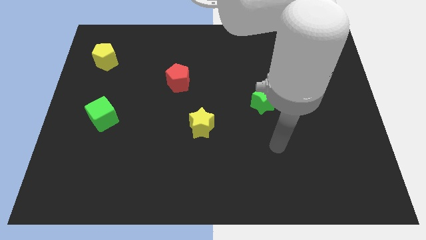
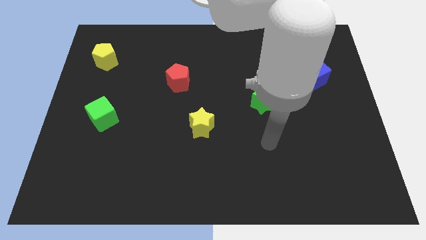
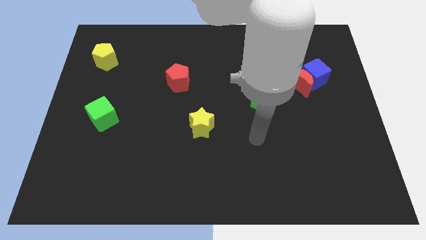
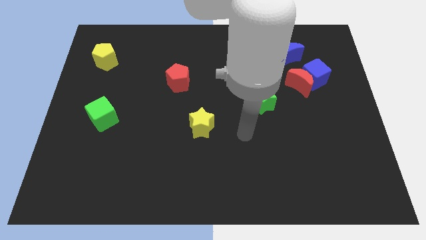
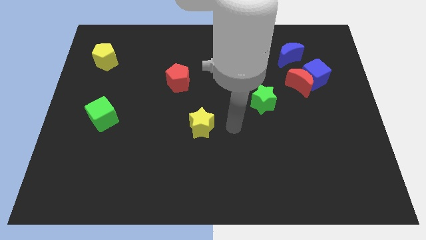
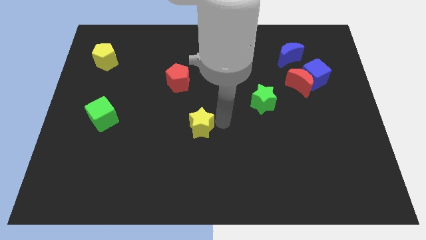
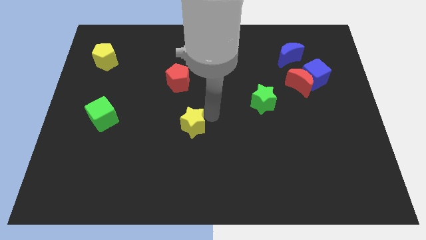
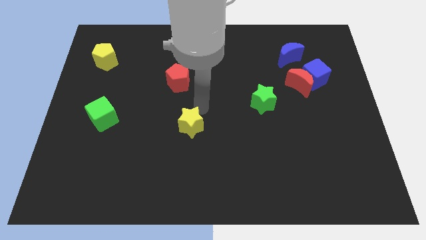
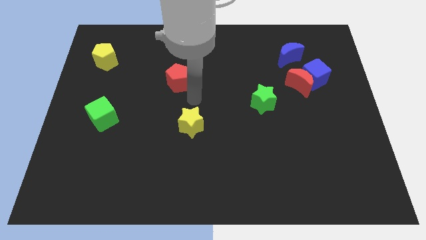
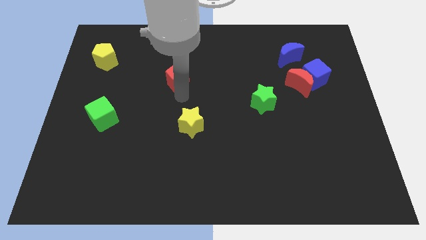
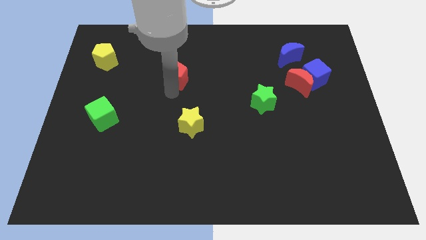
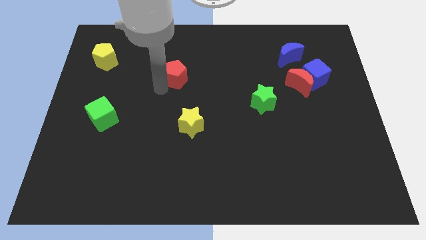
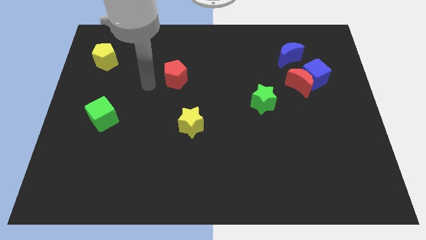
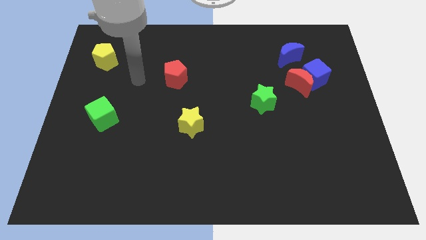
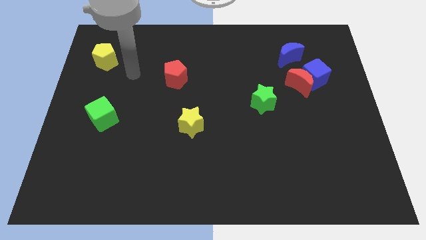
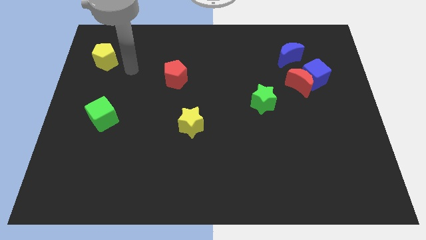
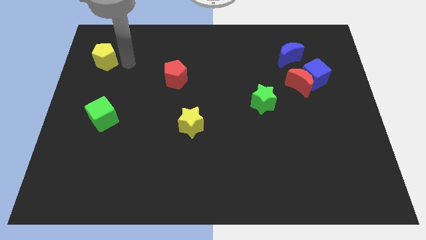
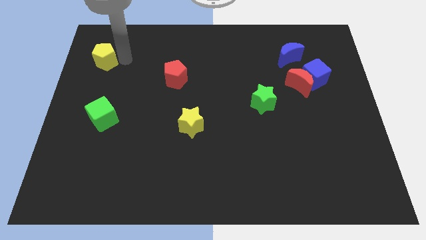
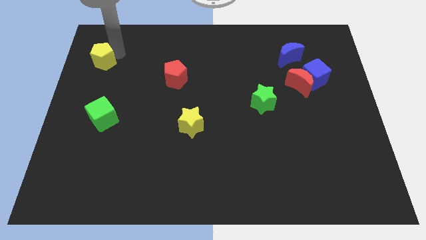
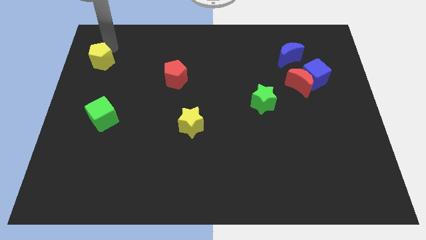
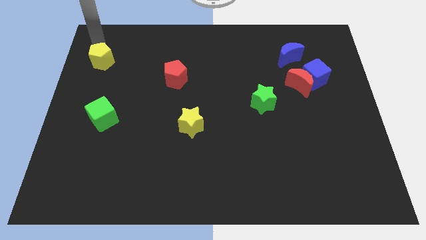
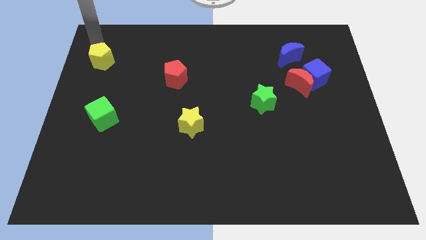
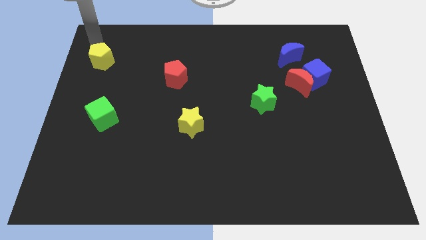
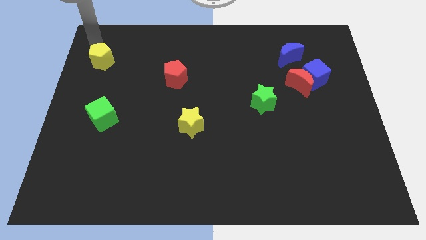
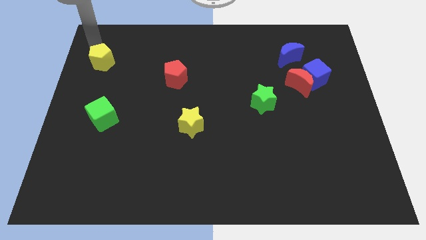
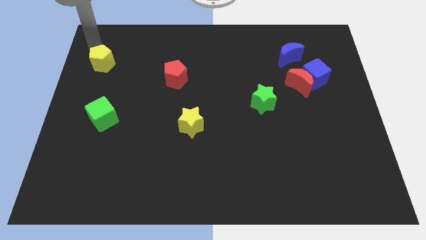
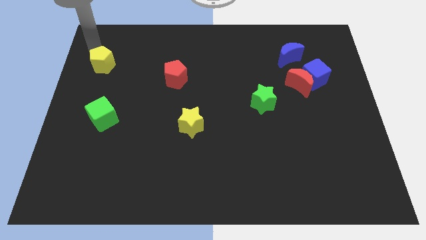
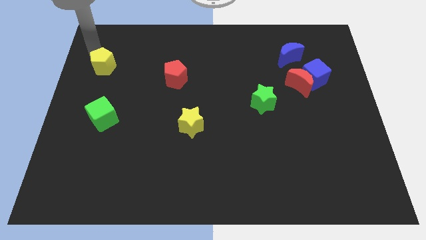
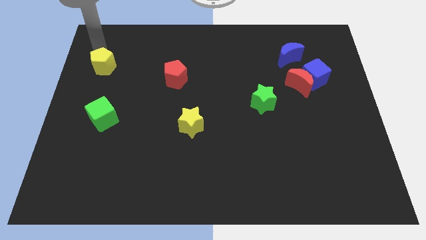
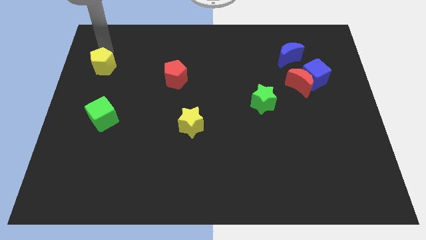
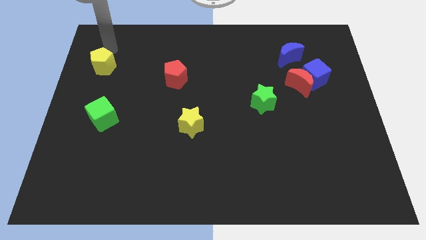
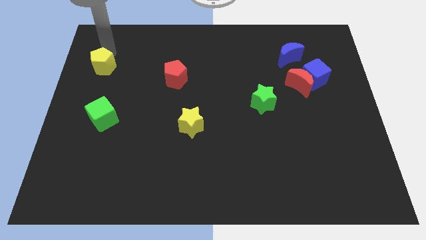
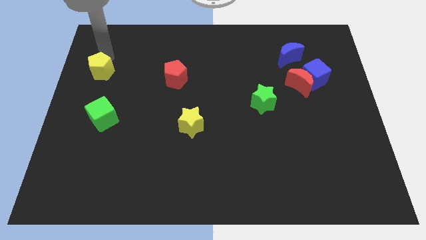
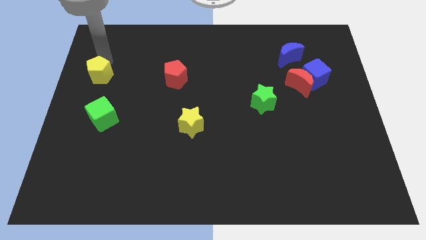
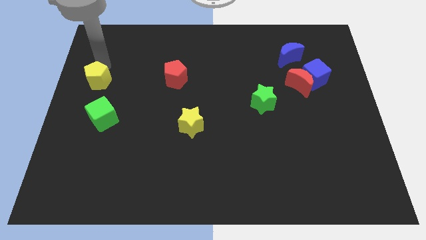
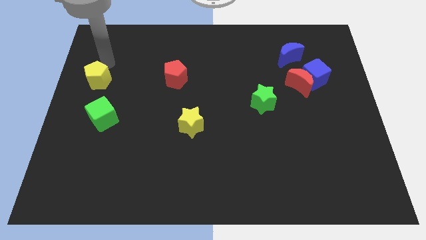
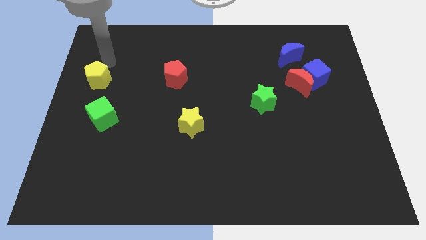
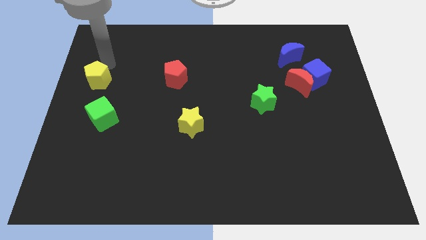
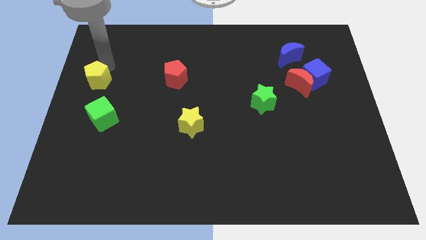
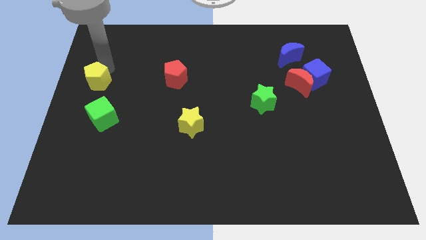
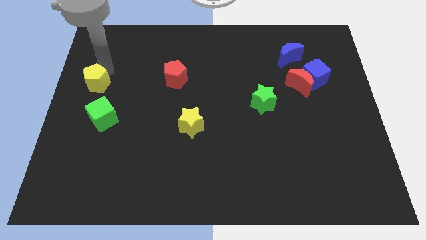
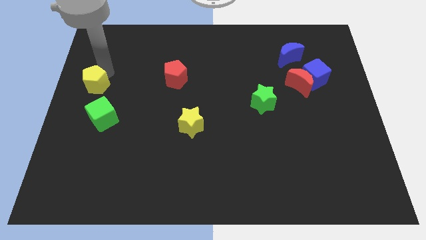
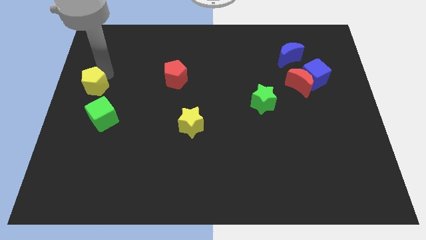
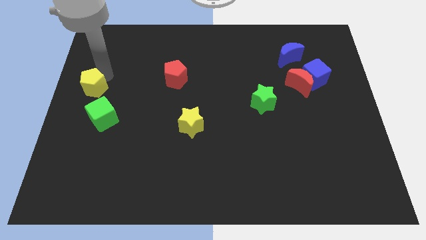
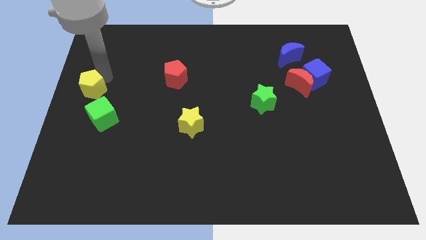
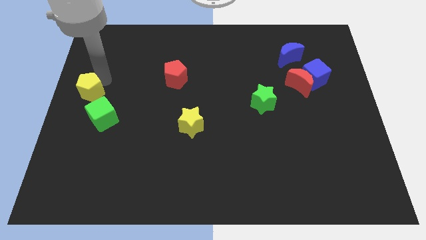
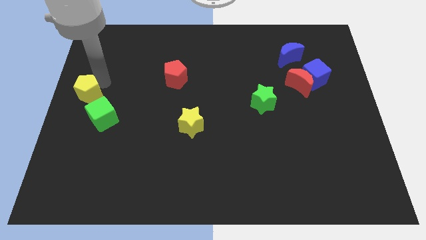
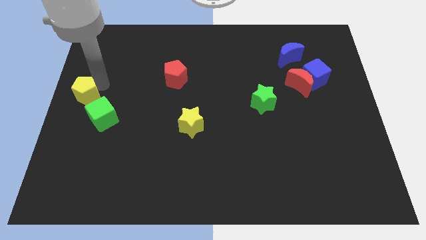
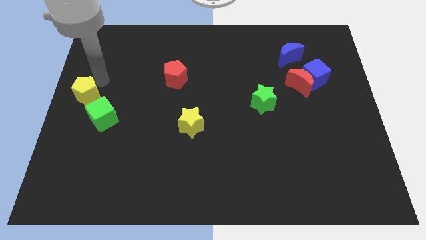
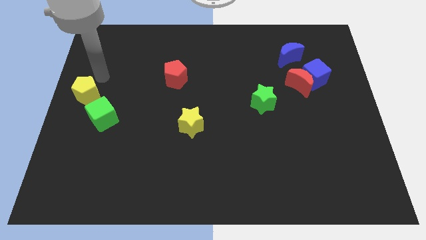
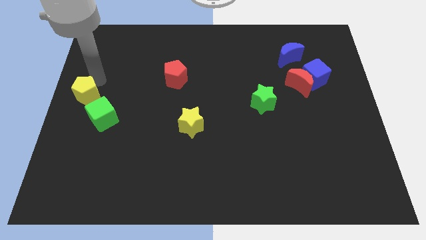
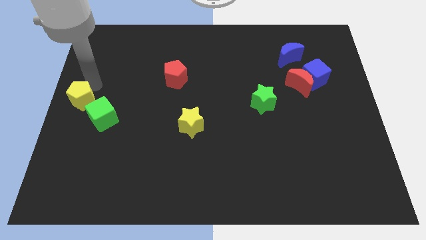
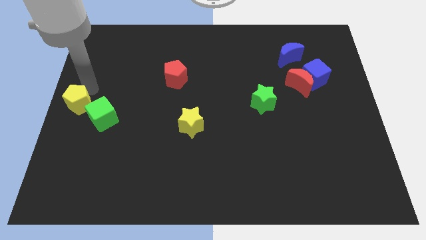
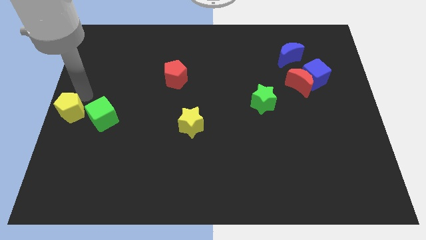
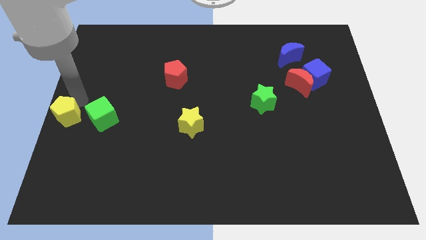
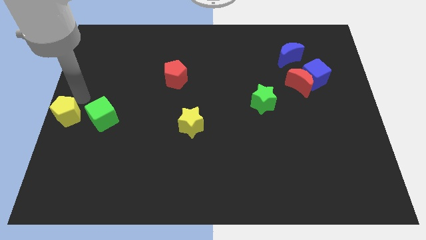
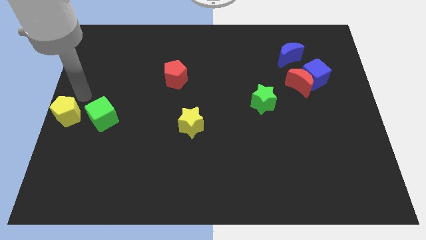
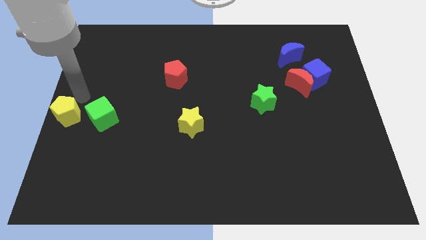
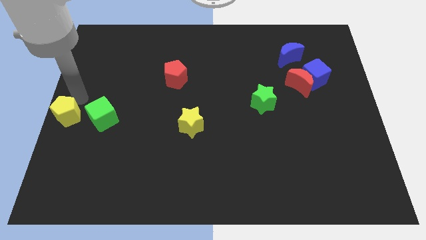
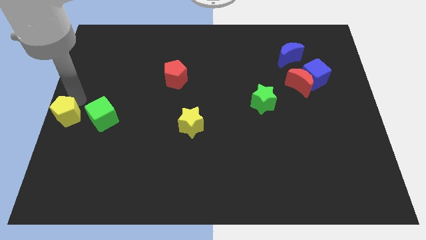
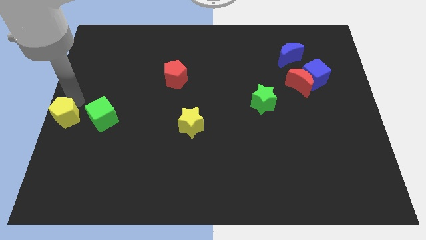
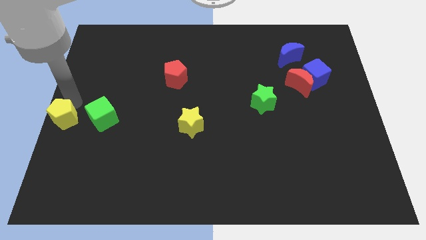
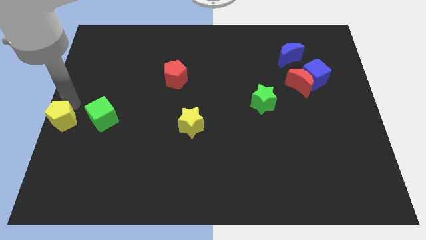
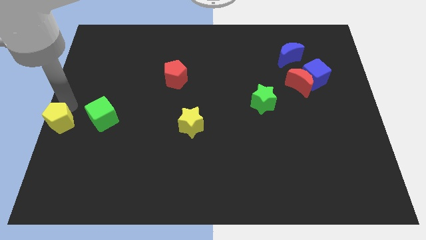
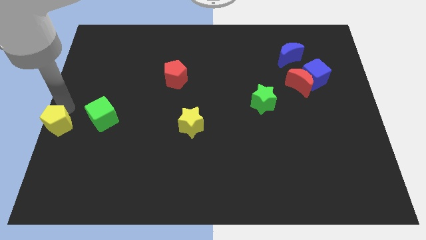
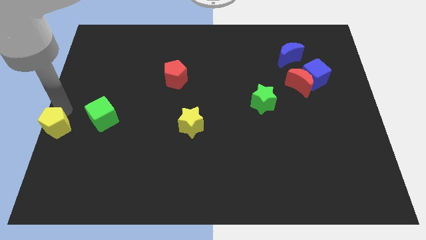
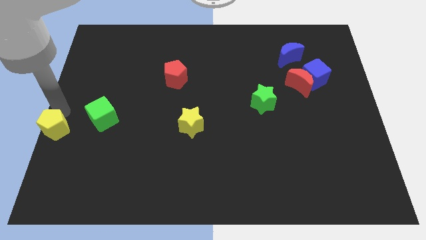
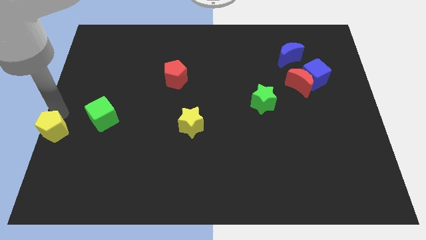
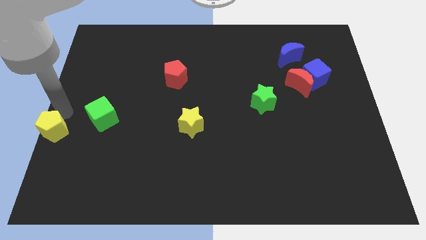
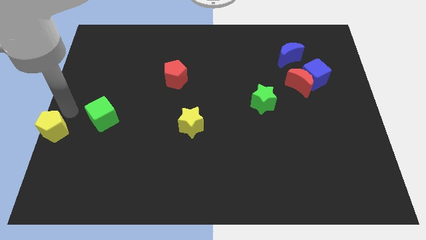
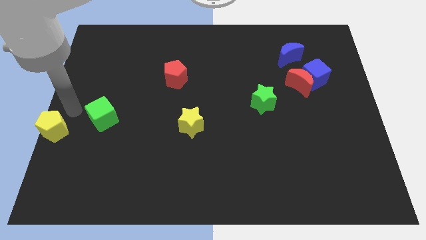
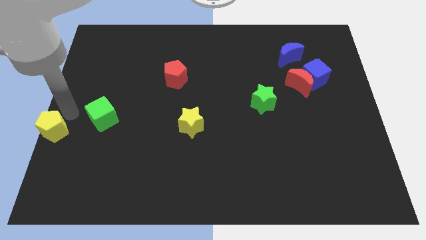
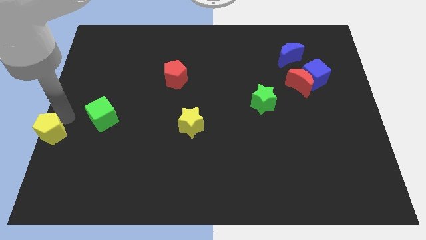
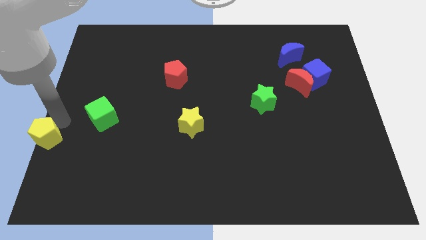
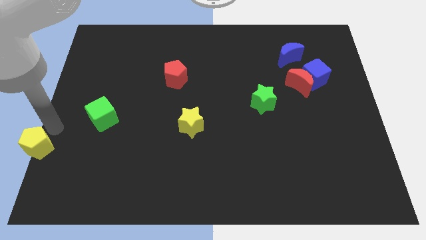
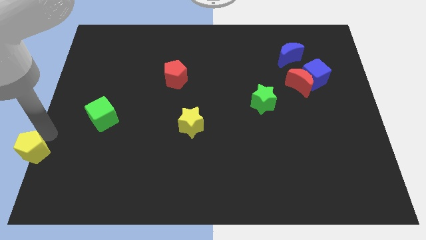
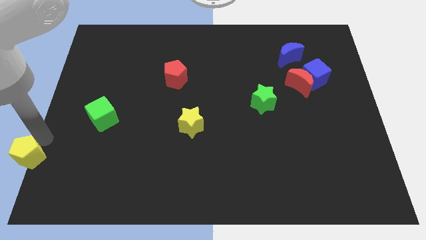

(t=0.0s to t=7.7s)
push the yellow pentagon to the bottom left corner
